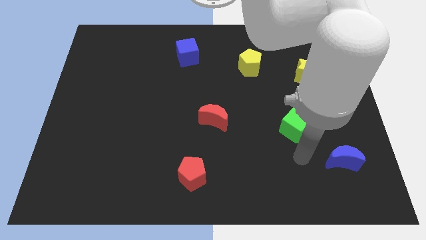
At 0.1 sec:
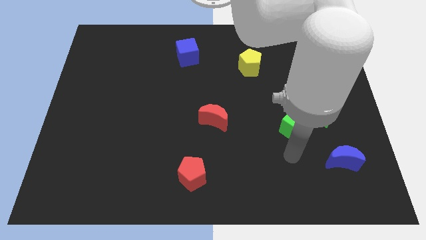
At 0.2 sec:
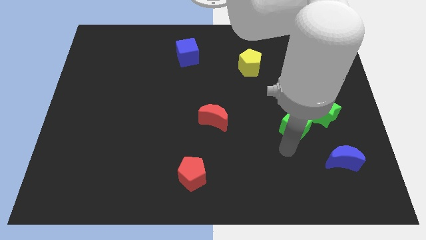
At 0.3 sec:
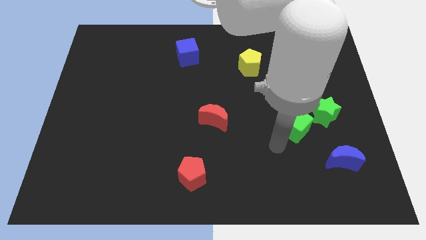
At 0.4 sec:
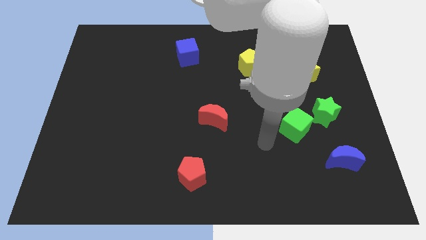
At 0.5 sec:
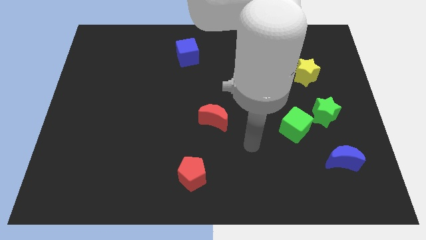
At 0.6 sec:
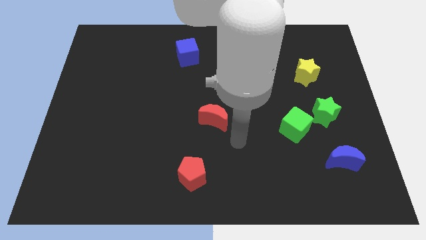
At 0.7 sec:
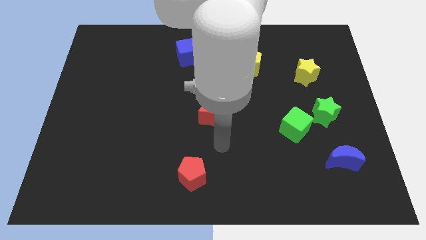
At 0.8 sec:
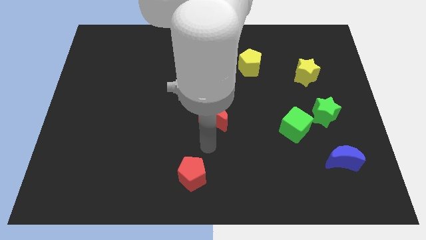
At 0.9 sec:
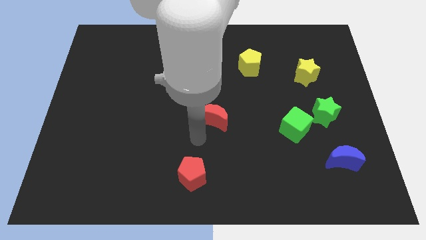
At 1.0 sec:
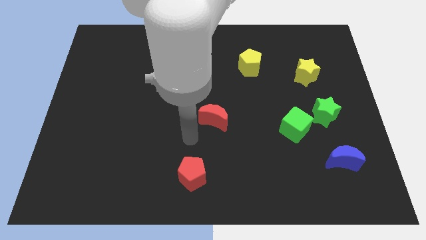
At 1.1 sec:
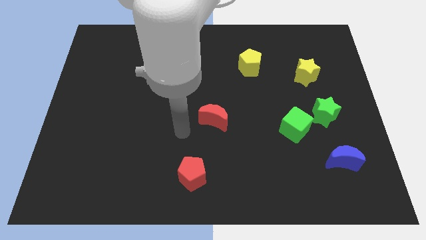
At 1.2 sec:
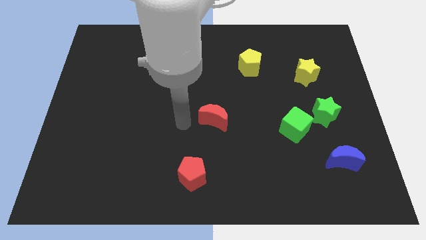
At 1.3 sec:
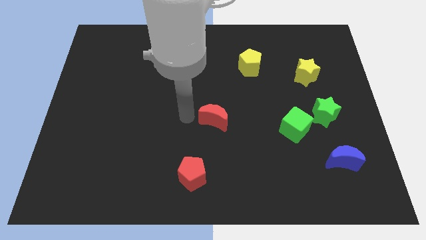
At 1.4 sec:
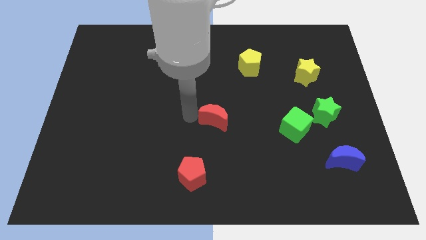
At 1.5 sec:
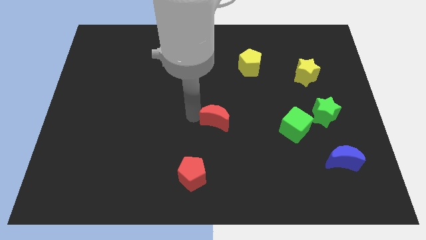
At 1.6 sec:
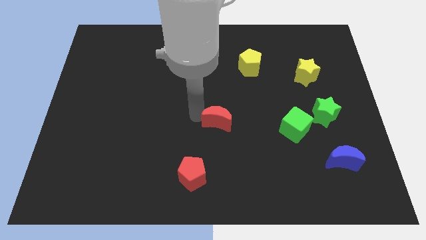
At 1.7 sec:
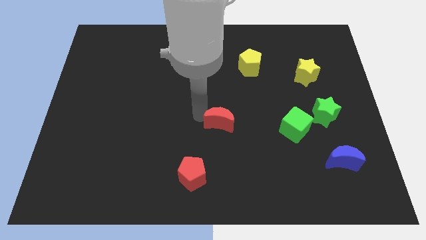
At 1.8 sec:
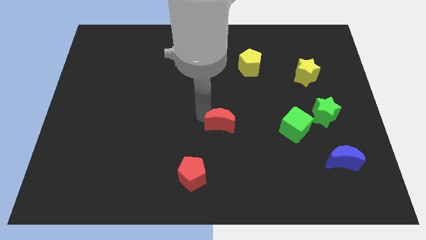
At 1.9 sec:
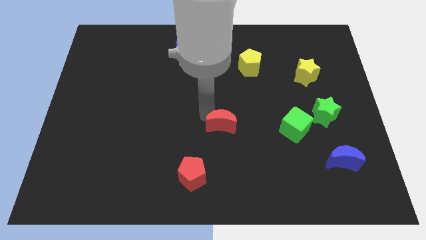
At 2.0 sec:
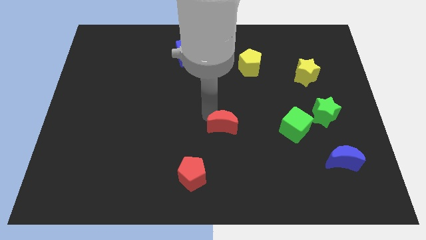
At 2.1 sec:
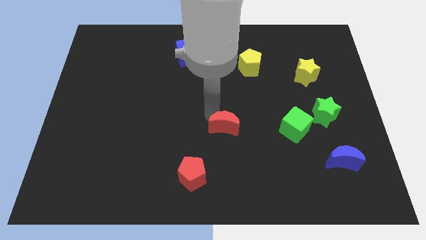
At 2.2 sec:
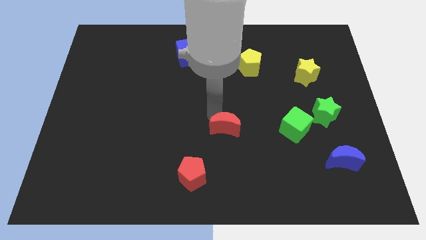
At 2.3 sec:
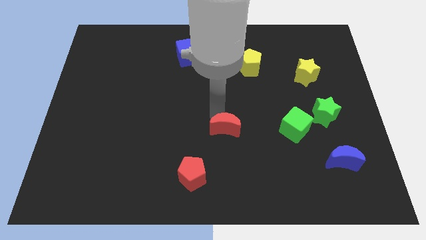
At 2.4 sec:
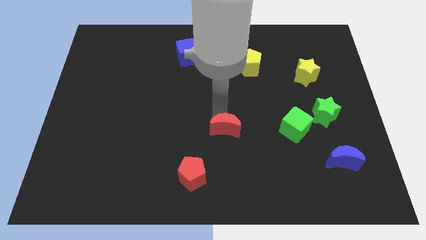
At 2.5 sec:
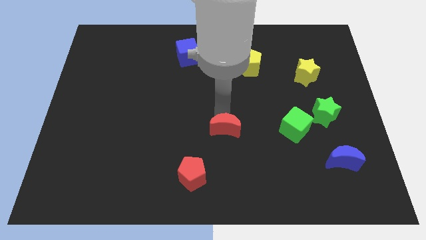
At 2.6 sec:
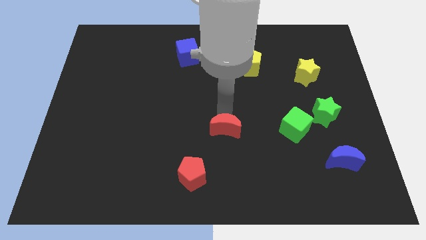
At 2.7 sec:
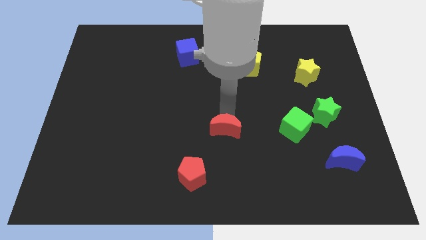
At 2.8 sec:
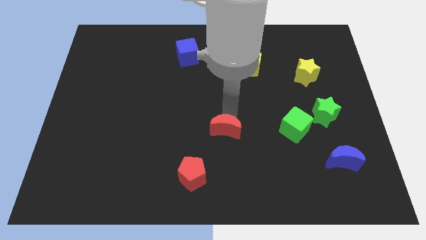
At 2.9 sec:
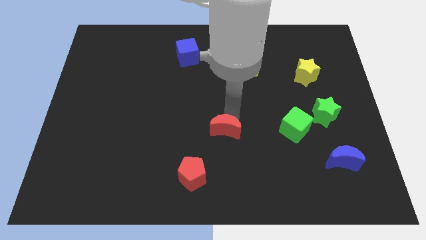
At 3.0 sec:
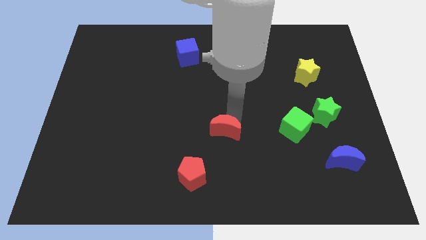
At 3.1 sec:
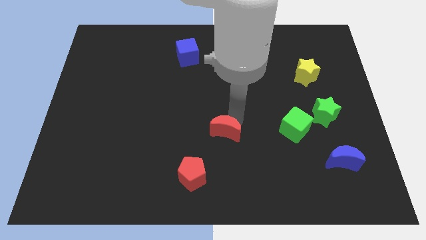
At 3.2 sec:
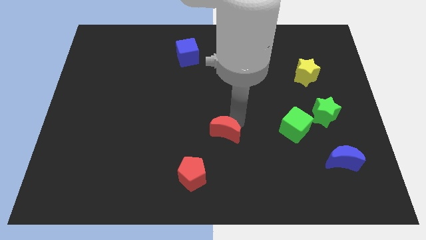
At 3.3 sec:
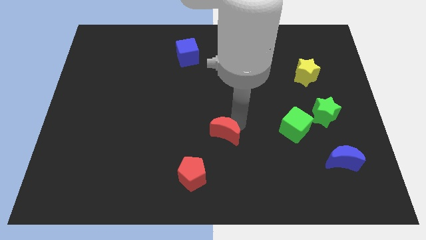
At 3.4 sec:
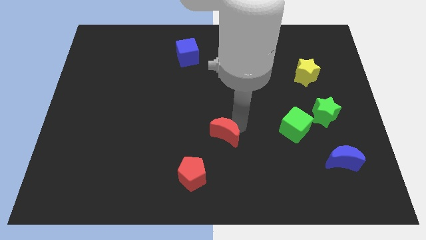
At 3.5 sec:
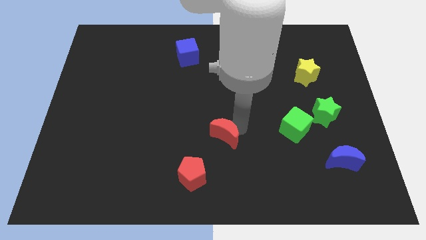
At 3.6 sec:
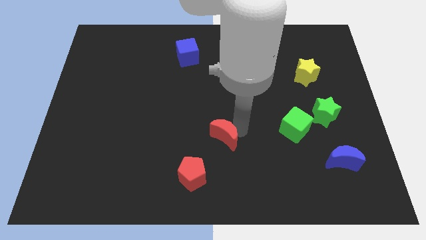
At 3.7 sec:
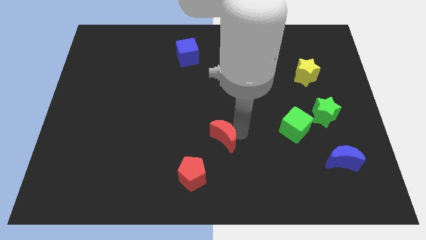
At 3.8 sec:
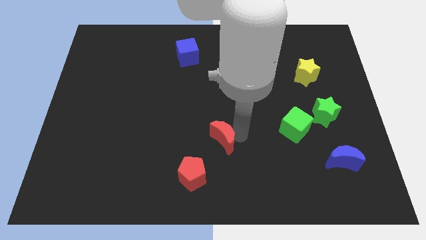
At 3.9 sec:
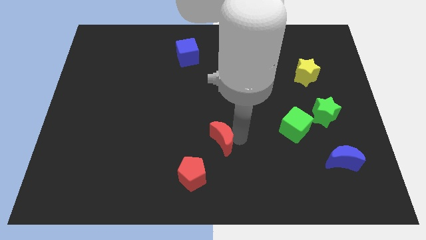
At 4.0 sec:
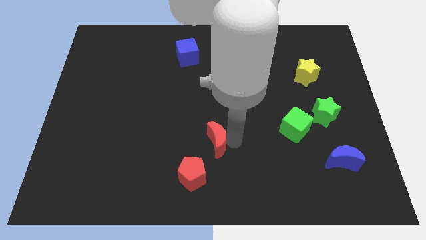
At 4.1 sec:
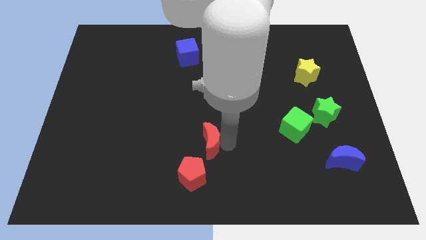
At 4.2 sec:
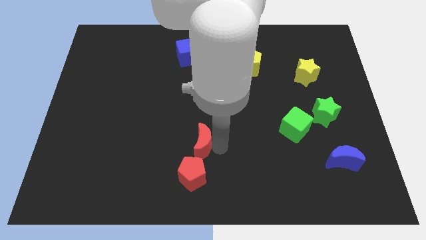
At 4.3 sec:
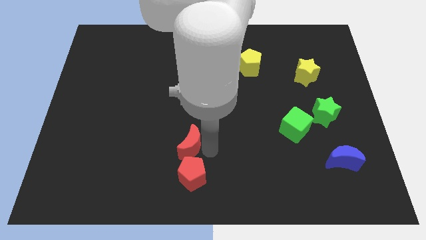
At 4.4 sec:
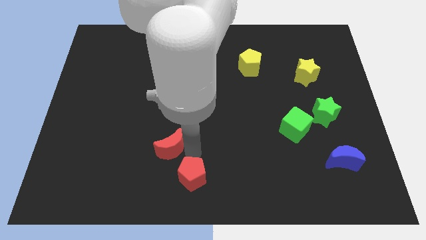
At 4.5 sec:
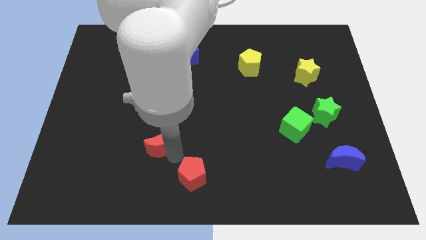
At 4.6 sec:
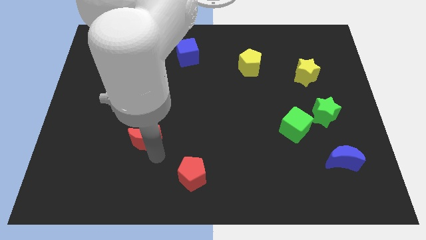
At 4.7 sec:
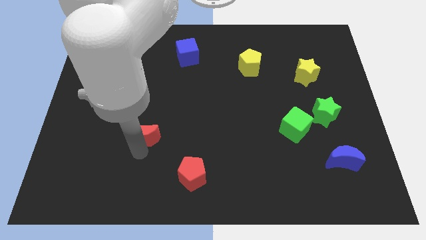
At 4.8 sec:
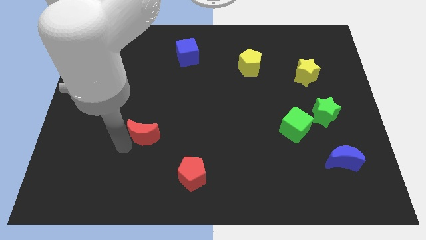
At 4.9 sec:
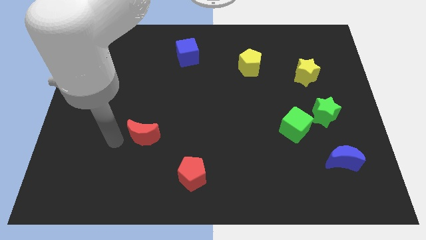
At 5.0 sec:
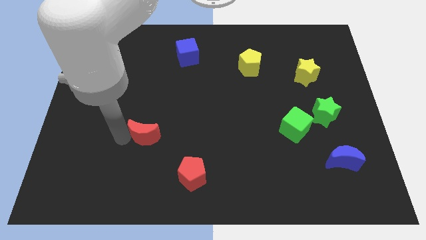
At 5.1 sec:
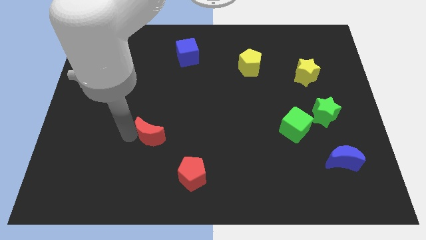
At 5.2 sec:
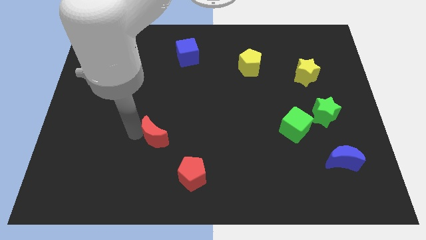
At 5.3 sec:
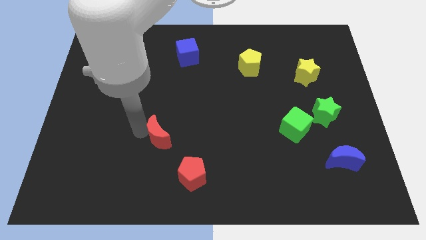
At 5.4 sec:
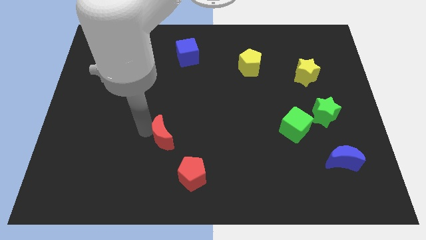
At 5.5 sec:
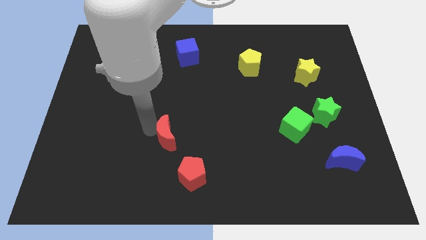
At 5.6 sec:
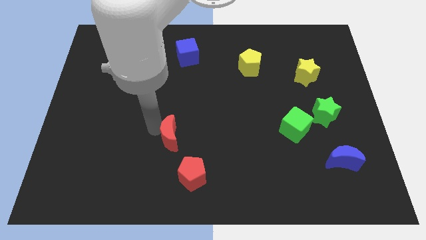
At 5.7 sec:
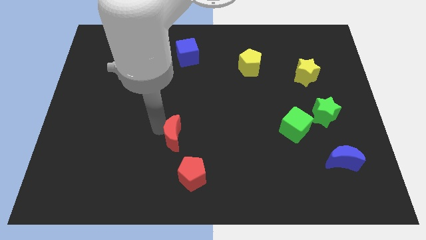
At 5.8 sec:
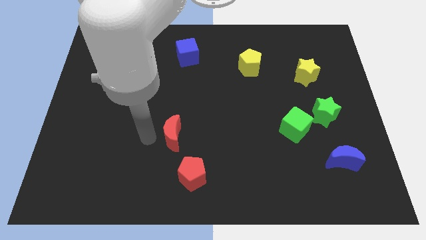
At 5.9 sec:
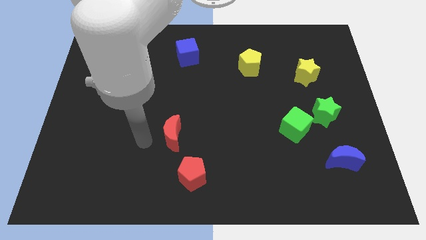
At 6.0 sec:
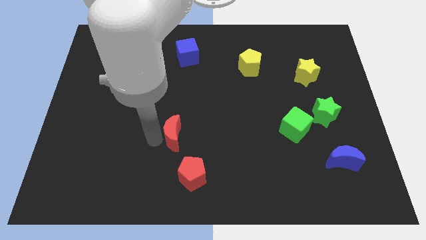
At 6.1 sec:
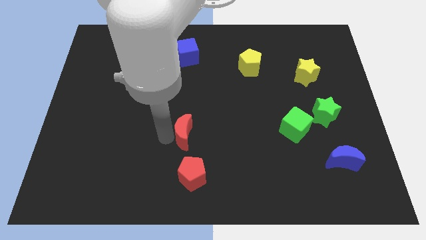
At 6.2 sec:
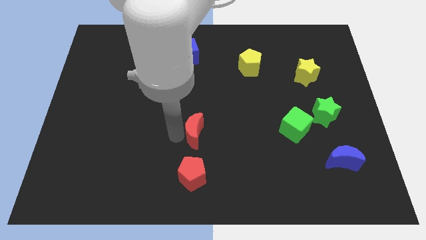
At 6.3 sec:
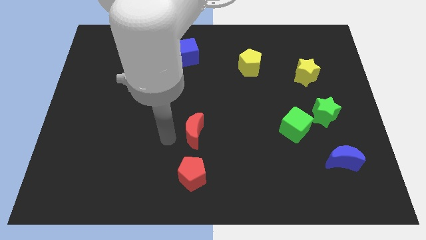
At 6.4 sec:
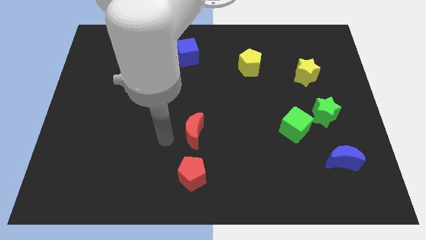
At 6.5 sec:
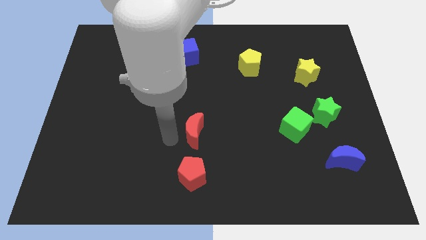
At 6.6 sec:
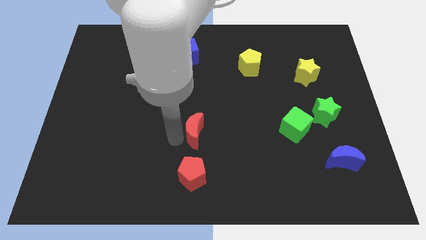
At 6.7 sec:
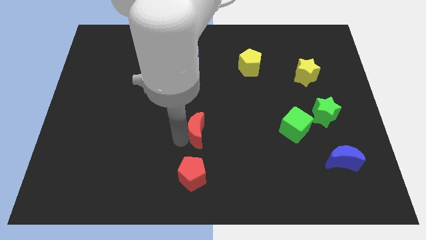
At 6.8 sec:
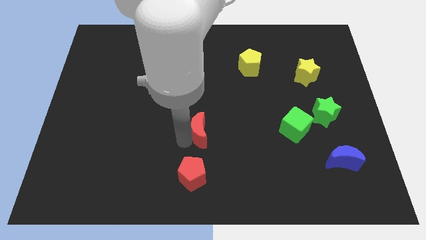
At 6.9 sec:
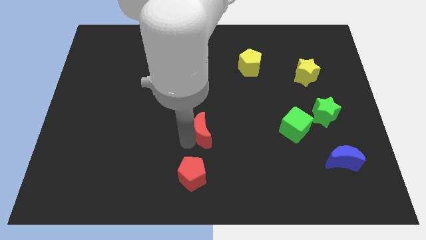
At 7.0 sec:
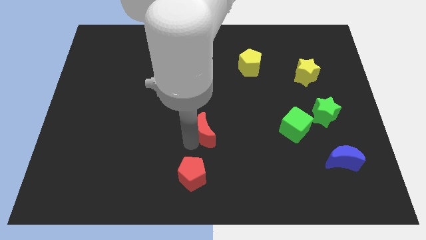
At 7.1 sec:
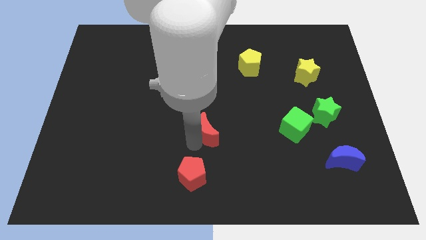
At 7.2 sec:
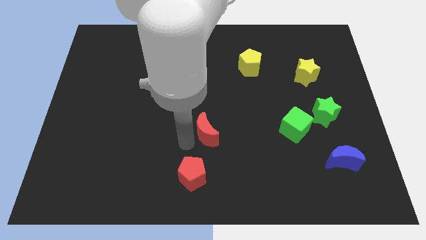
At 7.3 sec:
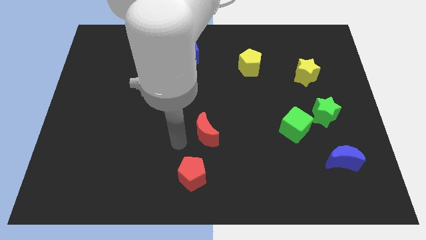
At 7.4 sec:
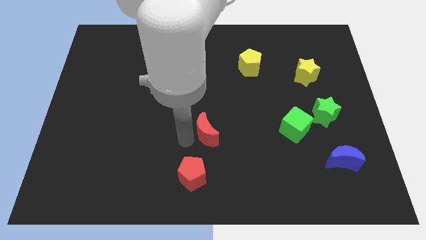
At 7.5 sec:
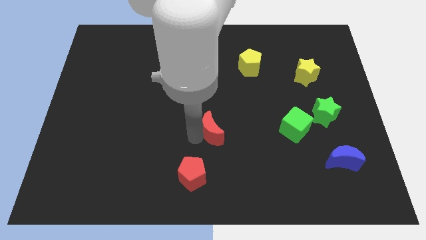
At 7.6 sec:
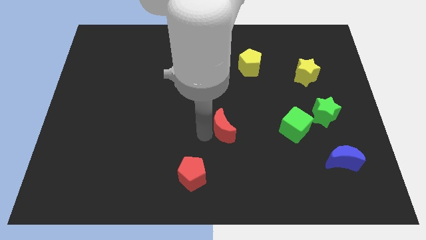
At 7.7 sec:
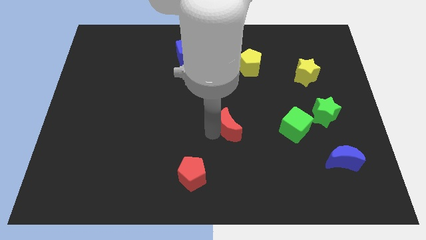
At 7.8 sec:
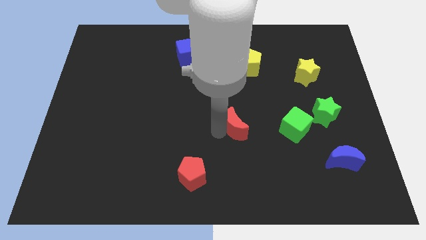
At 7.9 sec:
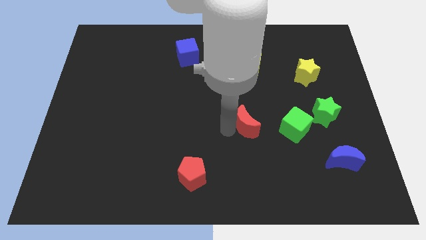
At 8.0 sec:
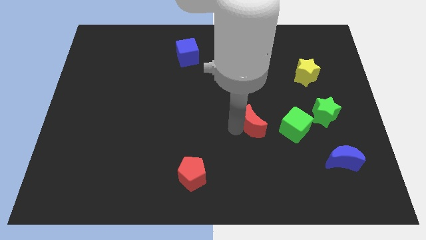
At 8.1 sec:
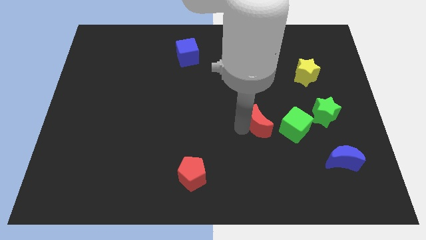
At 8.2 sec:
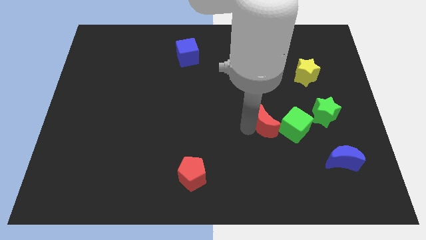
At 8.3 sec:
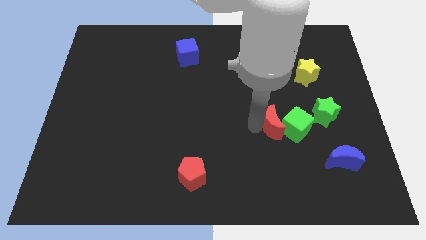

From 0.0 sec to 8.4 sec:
slide the red moon to the green cube
